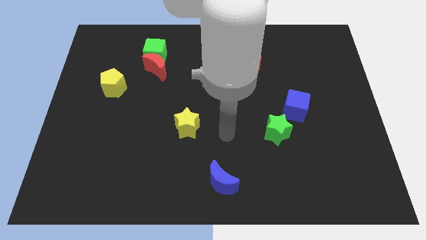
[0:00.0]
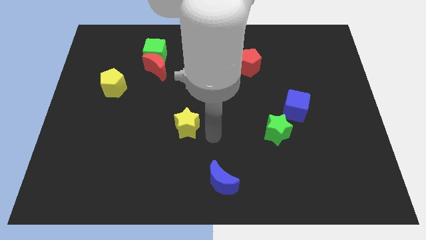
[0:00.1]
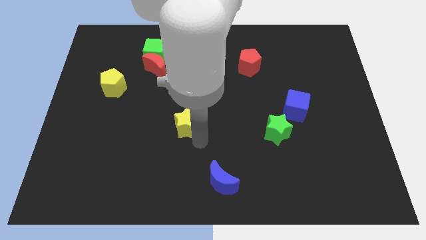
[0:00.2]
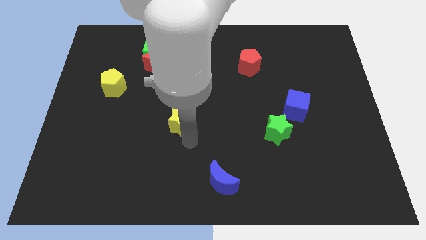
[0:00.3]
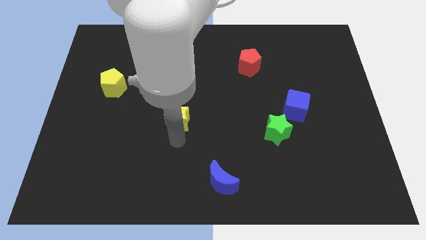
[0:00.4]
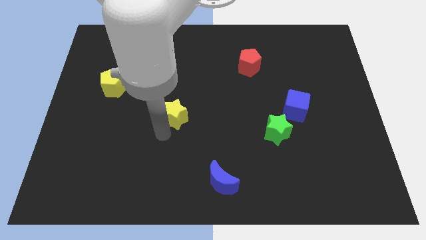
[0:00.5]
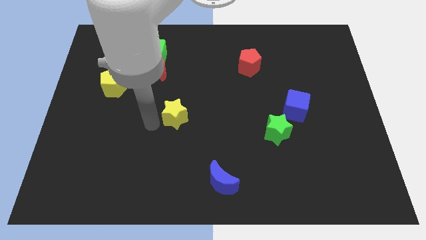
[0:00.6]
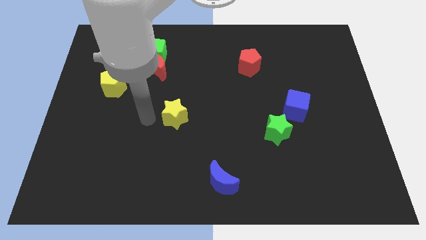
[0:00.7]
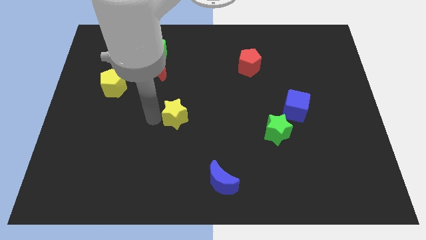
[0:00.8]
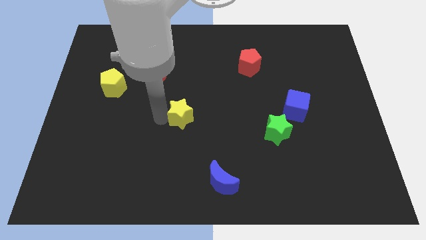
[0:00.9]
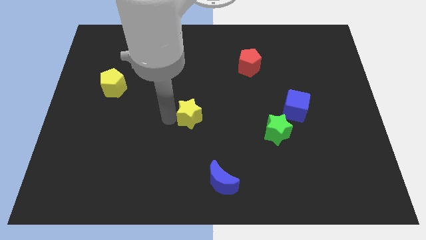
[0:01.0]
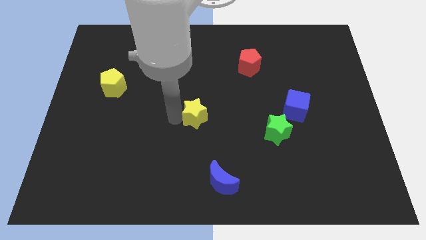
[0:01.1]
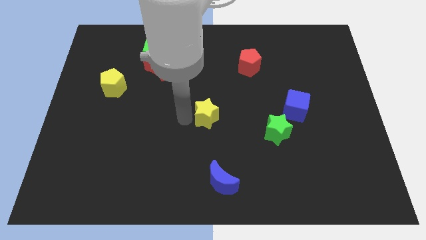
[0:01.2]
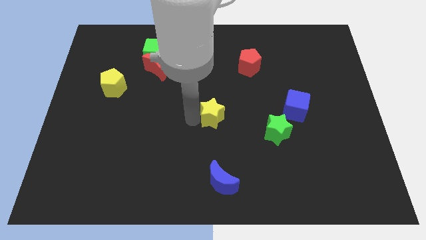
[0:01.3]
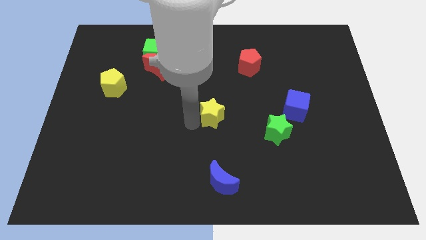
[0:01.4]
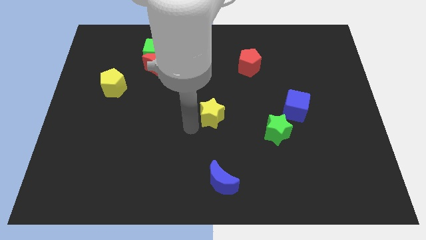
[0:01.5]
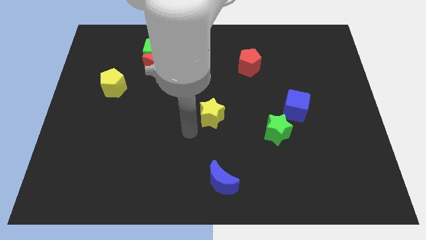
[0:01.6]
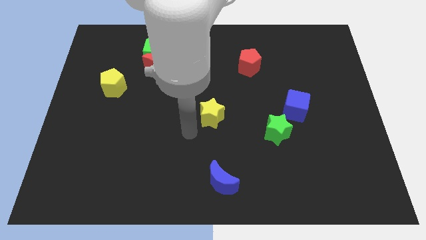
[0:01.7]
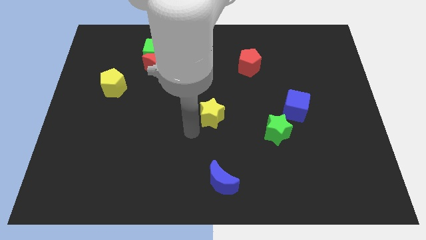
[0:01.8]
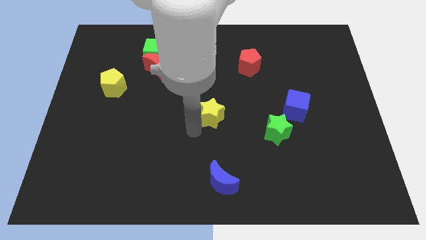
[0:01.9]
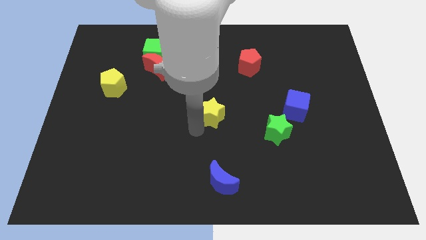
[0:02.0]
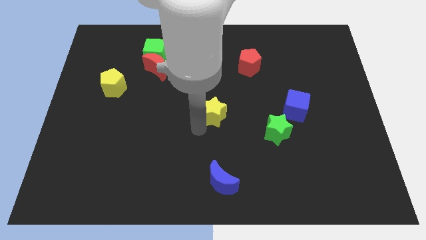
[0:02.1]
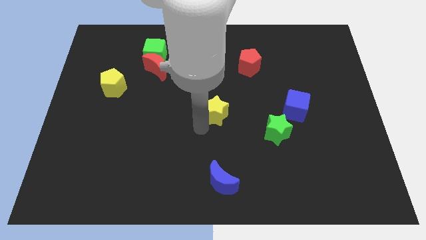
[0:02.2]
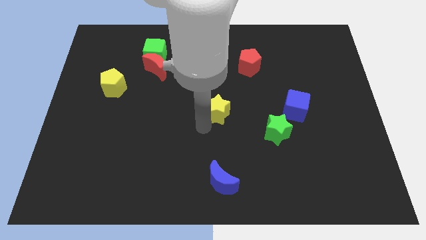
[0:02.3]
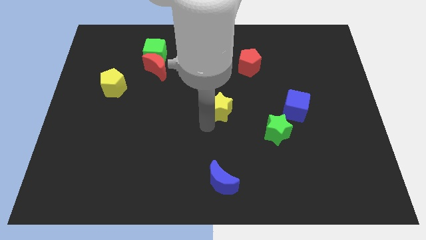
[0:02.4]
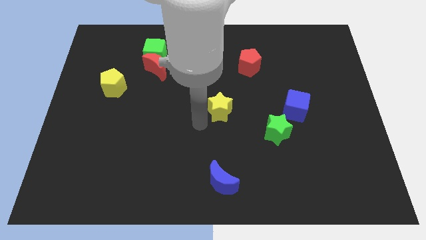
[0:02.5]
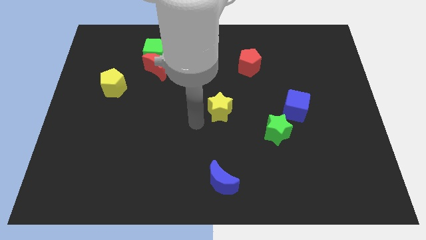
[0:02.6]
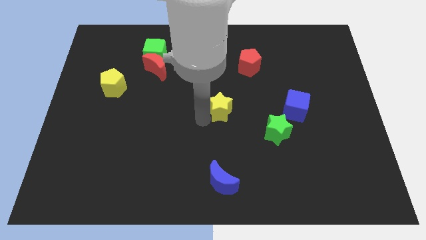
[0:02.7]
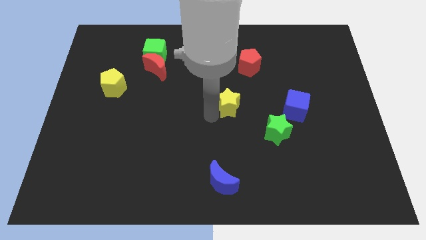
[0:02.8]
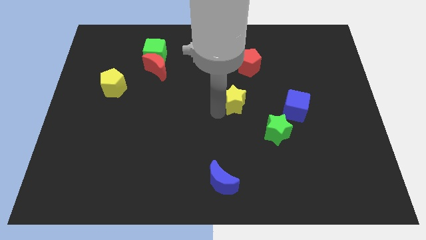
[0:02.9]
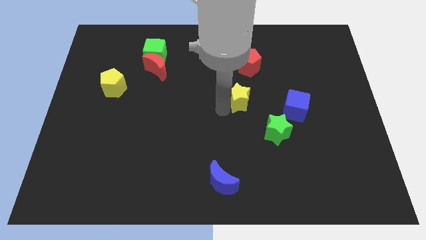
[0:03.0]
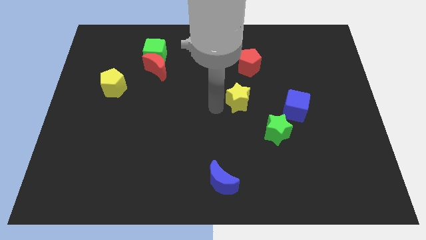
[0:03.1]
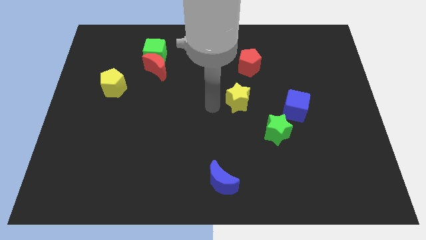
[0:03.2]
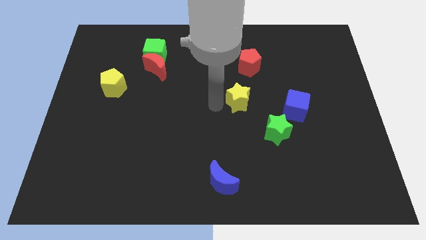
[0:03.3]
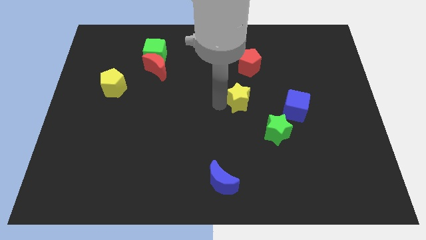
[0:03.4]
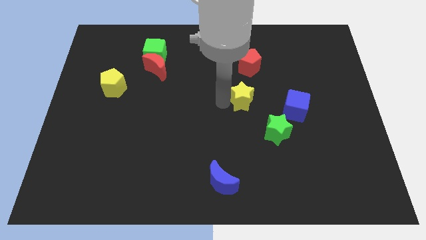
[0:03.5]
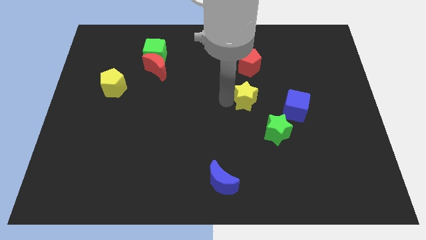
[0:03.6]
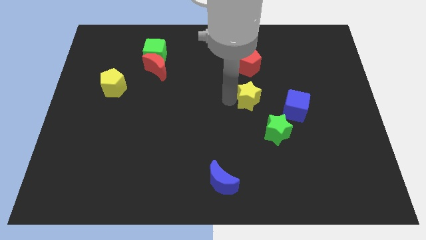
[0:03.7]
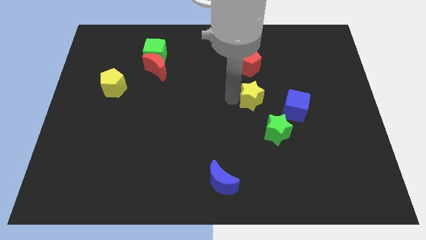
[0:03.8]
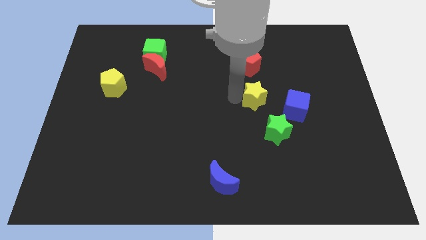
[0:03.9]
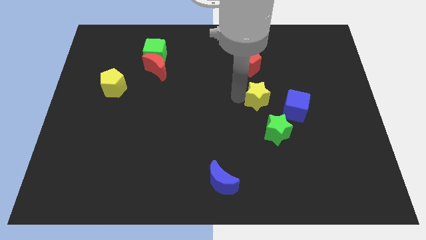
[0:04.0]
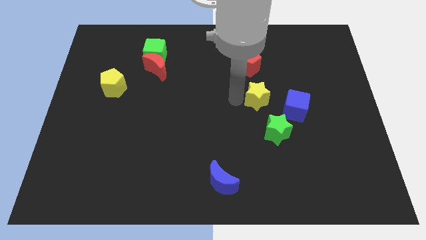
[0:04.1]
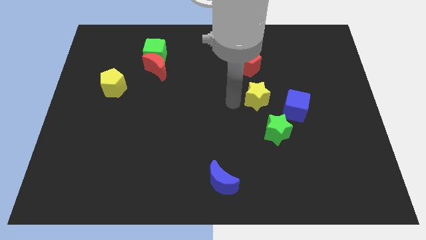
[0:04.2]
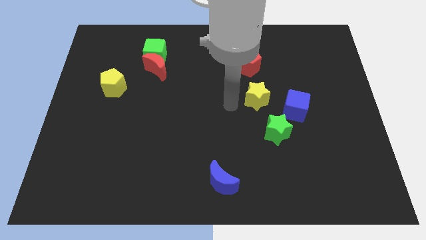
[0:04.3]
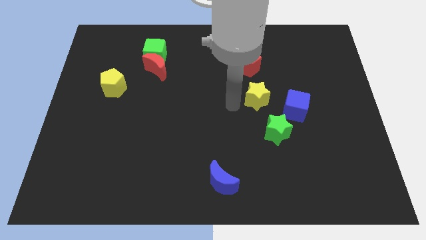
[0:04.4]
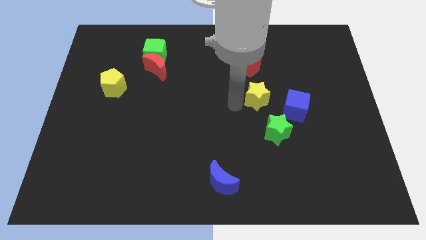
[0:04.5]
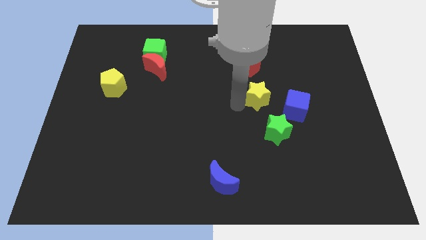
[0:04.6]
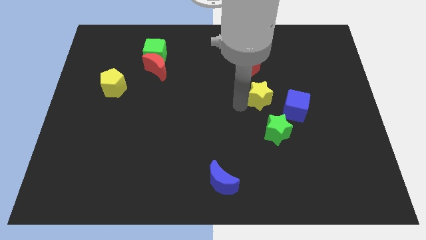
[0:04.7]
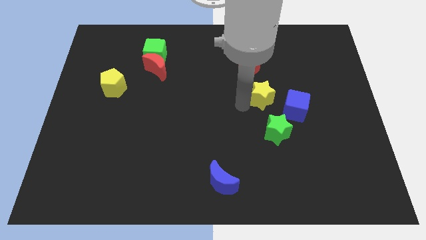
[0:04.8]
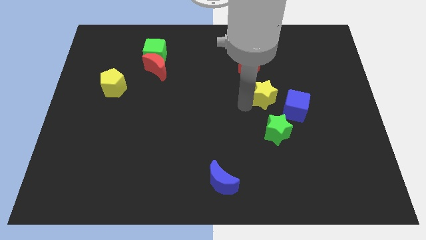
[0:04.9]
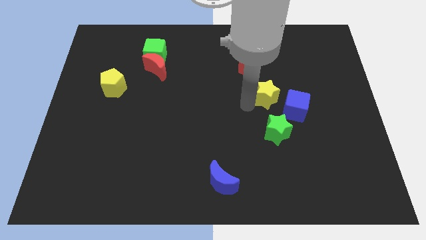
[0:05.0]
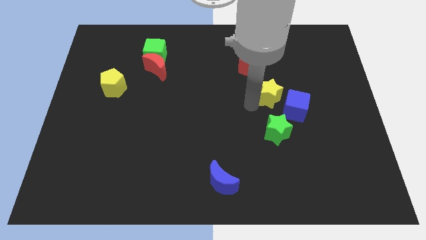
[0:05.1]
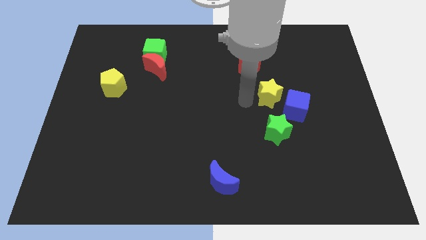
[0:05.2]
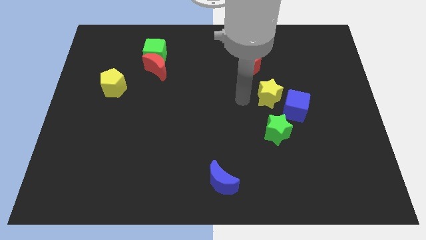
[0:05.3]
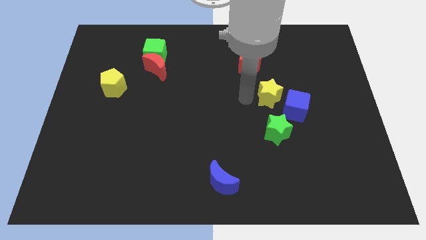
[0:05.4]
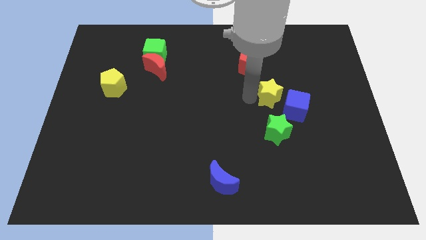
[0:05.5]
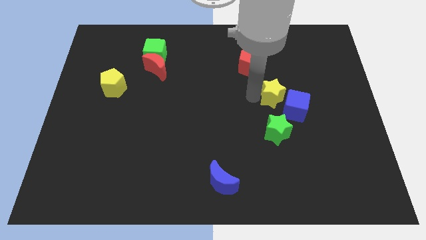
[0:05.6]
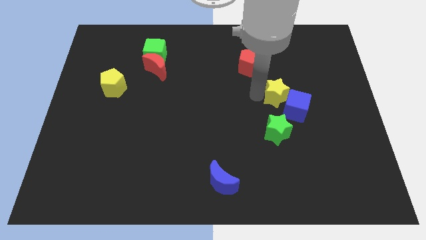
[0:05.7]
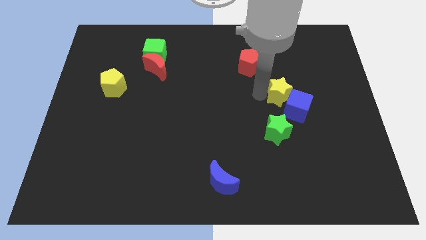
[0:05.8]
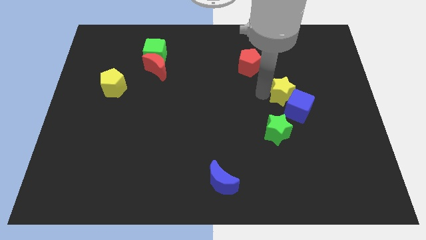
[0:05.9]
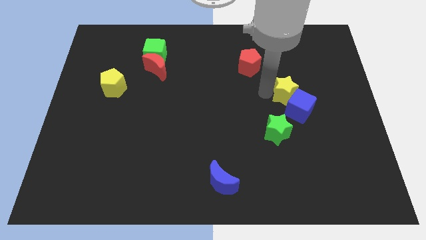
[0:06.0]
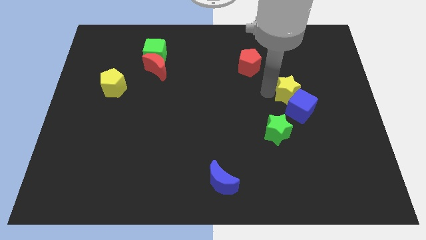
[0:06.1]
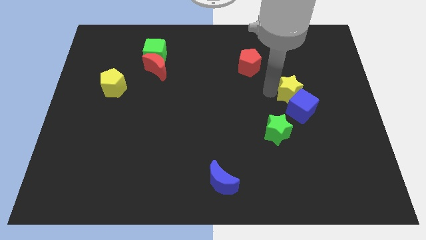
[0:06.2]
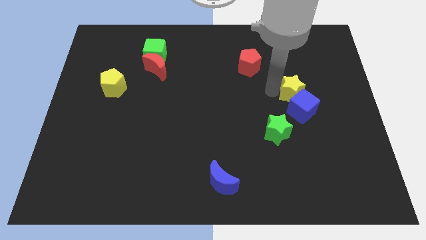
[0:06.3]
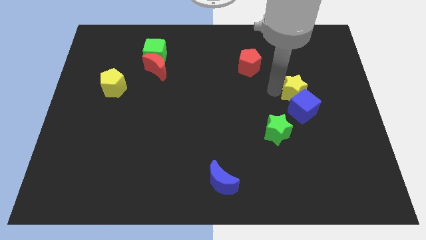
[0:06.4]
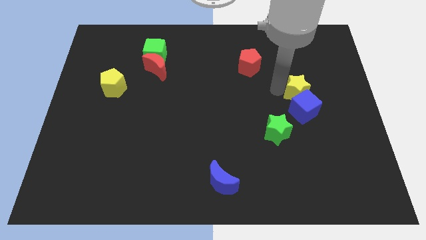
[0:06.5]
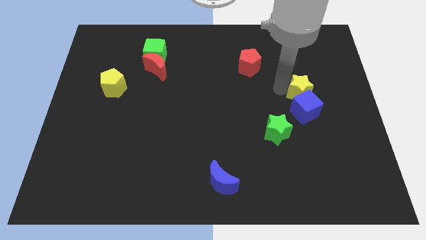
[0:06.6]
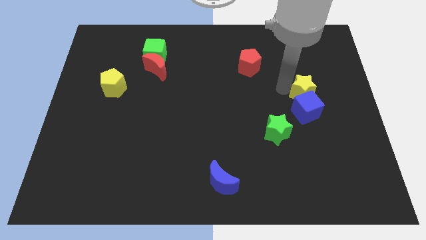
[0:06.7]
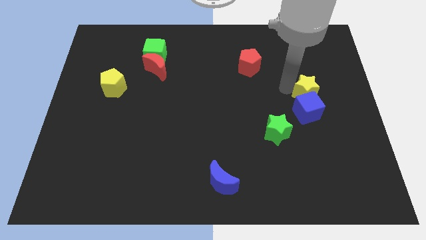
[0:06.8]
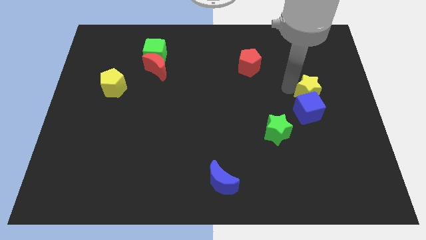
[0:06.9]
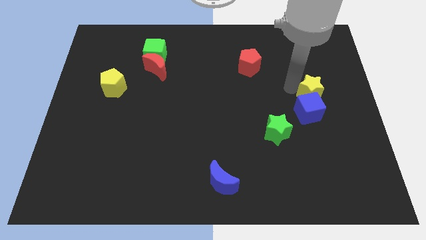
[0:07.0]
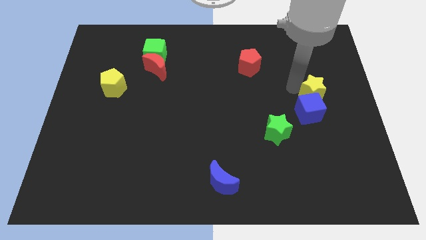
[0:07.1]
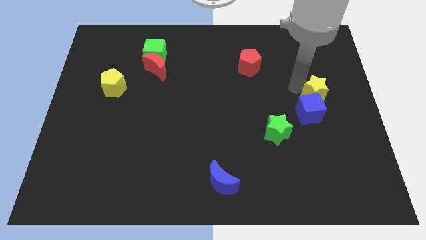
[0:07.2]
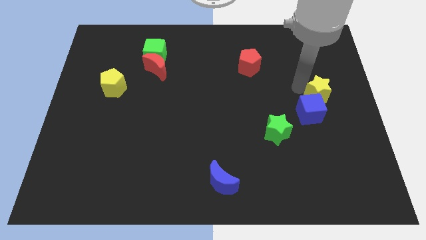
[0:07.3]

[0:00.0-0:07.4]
move the yellow star to the center right
